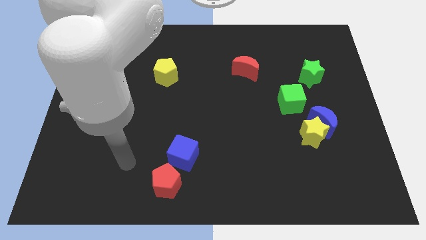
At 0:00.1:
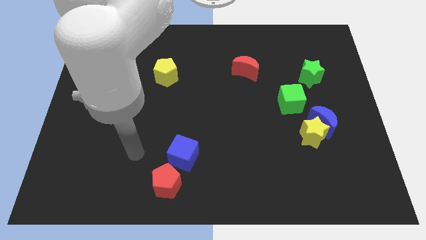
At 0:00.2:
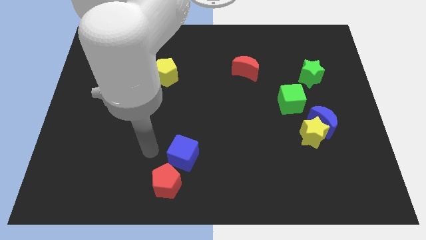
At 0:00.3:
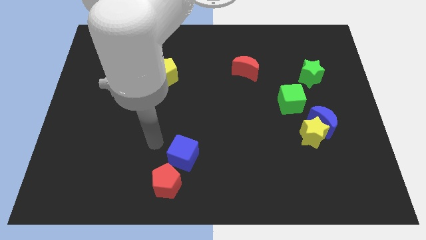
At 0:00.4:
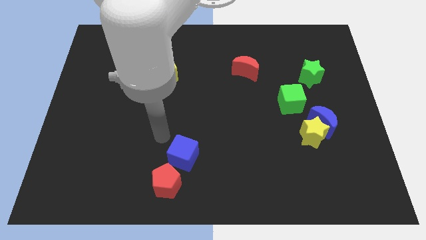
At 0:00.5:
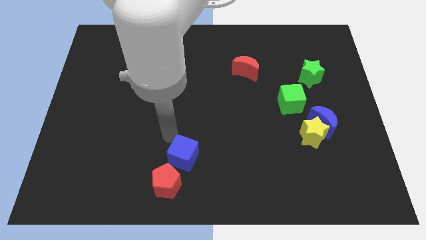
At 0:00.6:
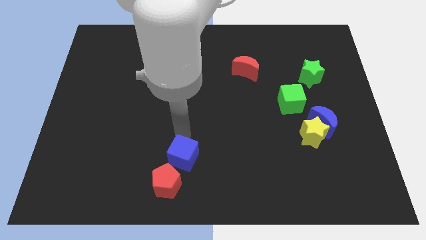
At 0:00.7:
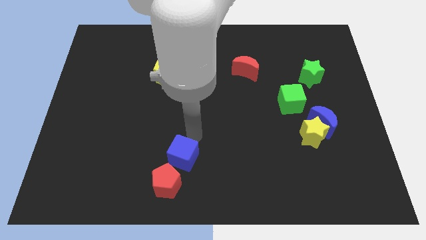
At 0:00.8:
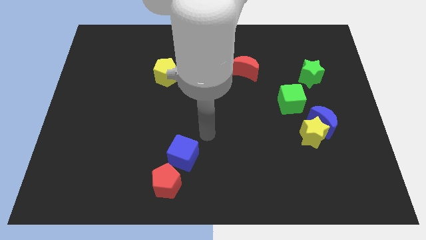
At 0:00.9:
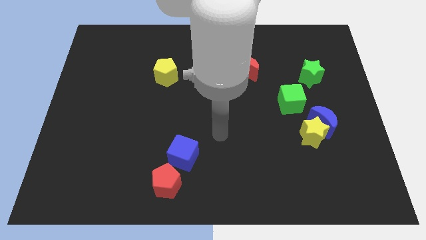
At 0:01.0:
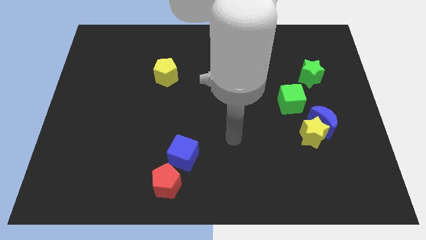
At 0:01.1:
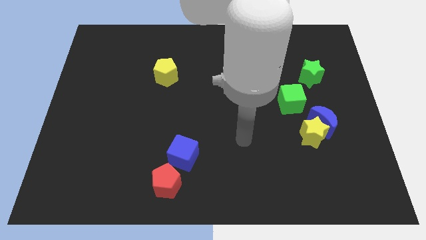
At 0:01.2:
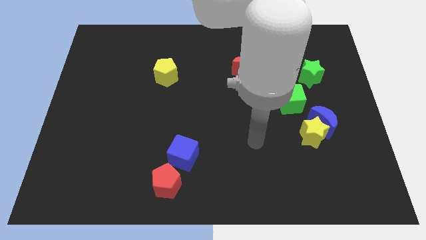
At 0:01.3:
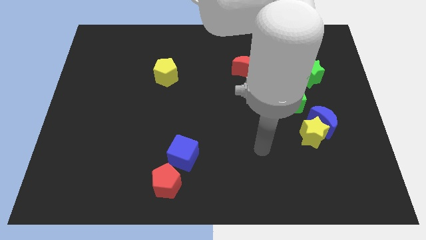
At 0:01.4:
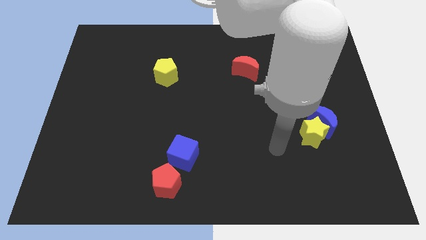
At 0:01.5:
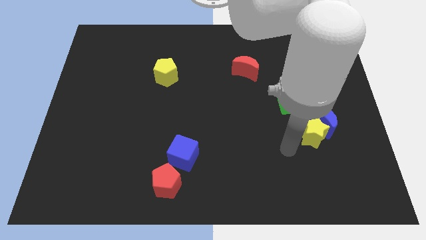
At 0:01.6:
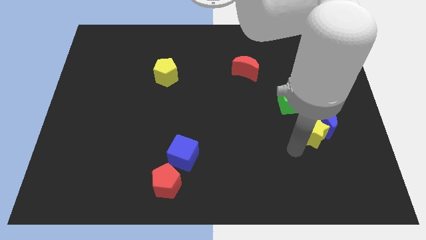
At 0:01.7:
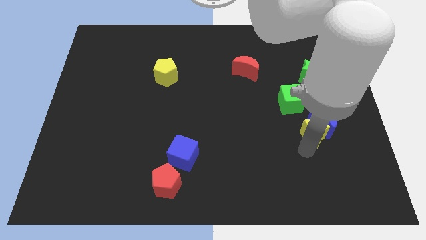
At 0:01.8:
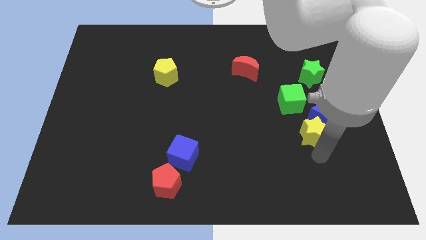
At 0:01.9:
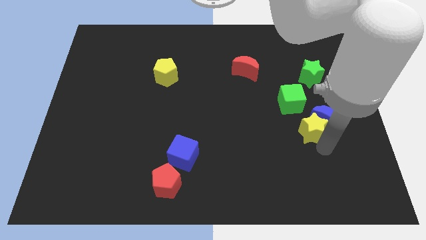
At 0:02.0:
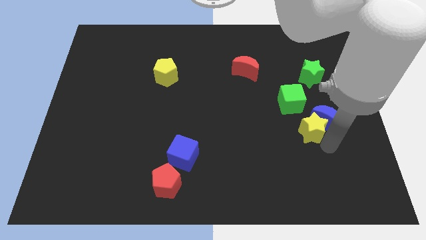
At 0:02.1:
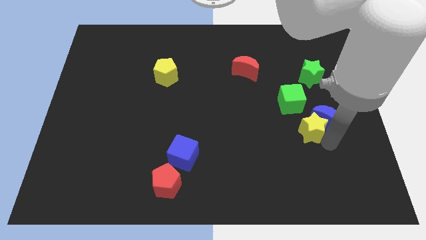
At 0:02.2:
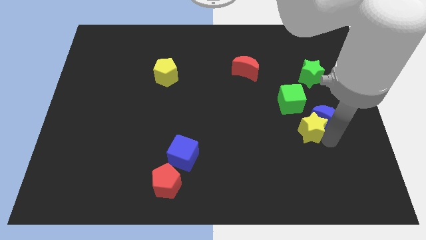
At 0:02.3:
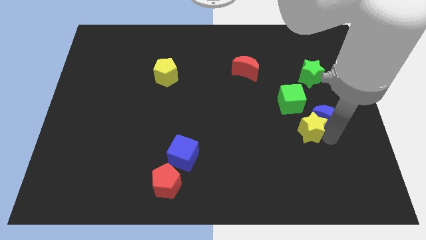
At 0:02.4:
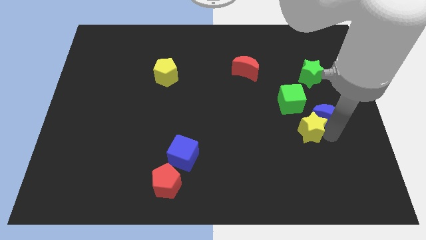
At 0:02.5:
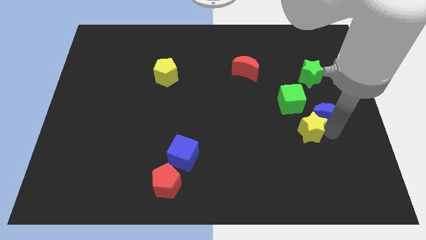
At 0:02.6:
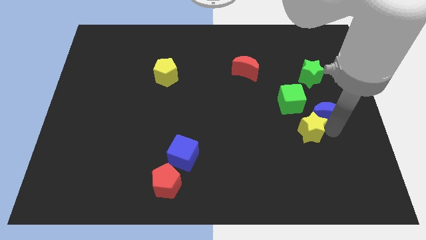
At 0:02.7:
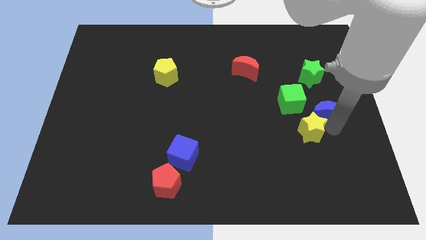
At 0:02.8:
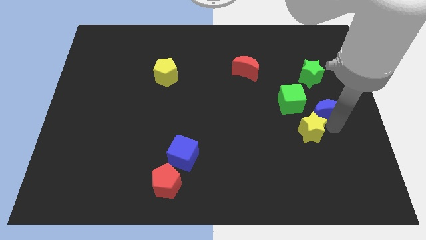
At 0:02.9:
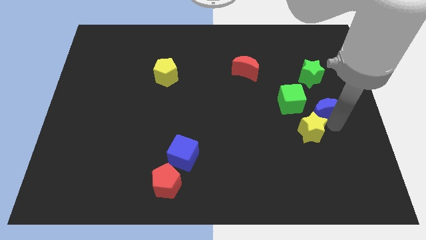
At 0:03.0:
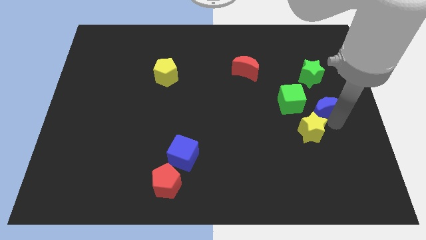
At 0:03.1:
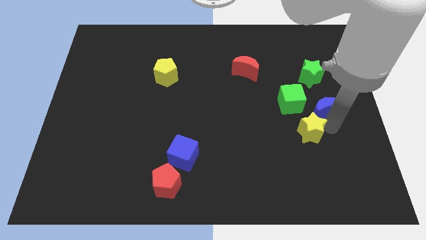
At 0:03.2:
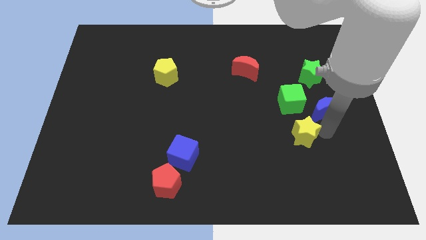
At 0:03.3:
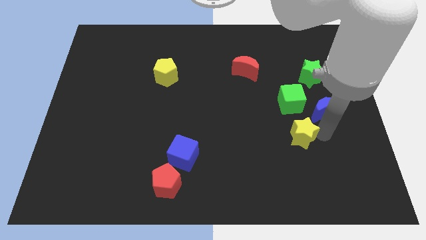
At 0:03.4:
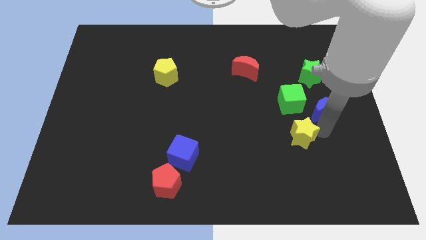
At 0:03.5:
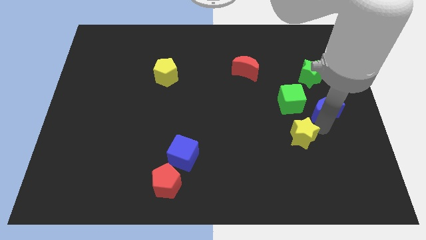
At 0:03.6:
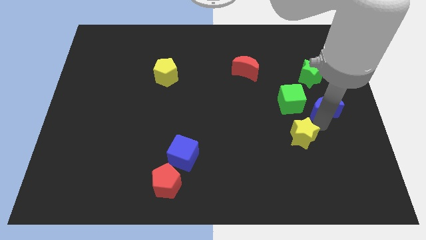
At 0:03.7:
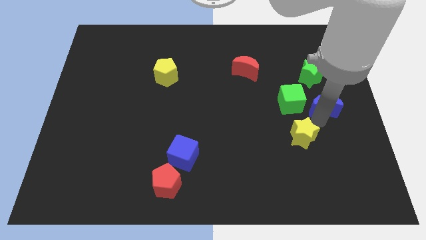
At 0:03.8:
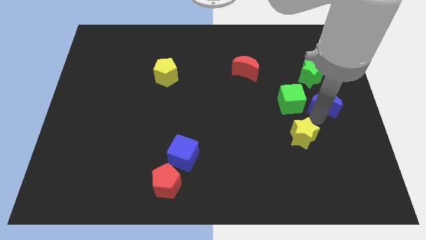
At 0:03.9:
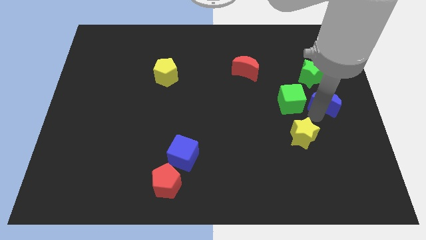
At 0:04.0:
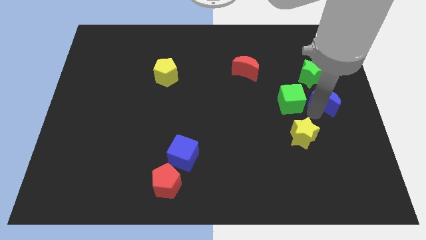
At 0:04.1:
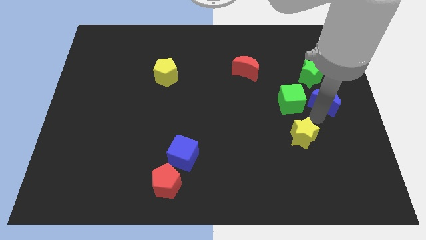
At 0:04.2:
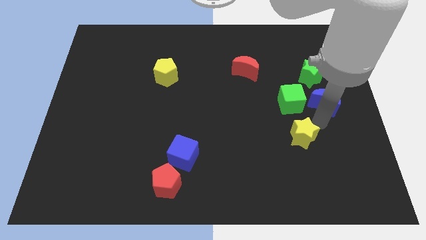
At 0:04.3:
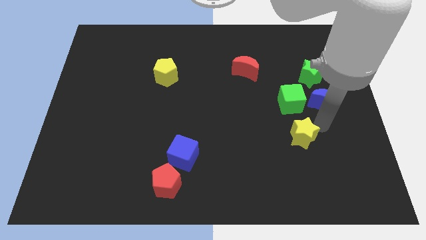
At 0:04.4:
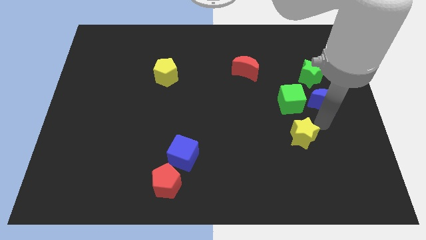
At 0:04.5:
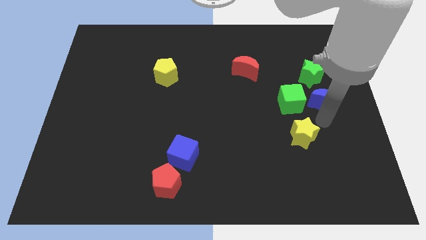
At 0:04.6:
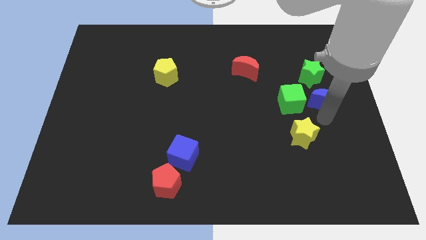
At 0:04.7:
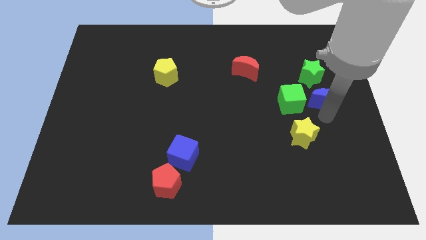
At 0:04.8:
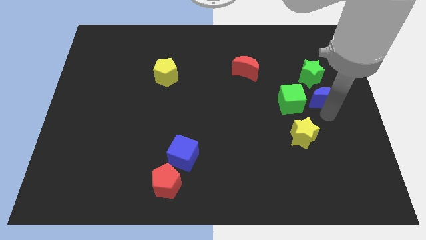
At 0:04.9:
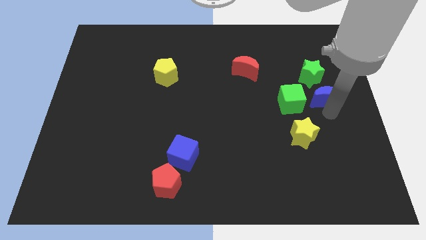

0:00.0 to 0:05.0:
move the blue moon a little upwards

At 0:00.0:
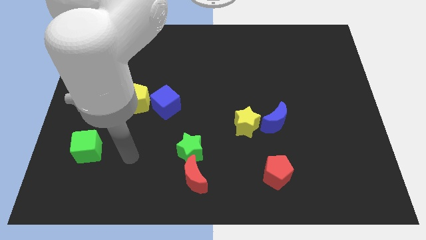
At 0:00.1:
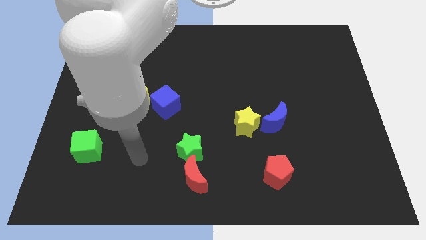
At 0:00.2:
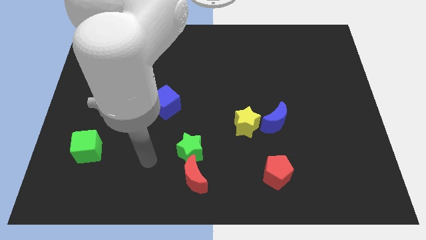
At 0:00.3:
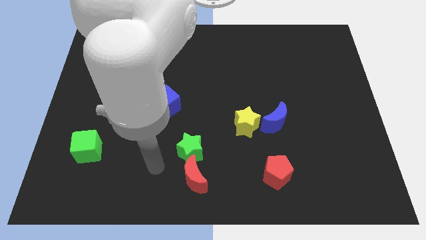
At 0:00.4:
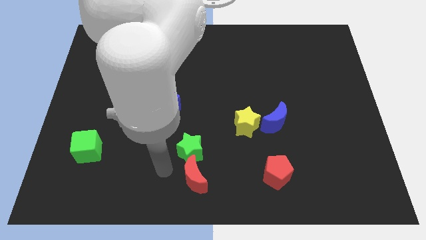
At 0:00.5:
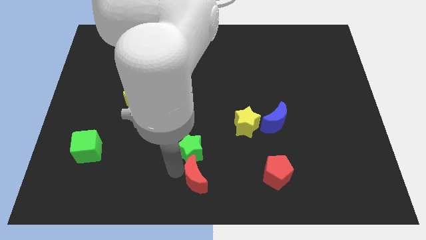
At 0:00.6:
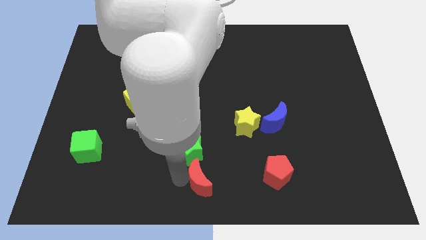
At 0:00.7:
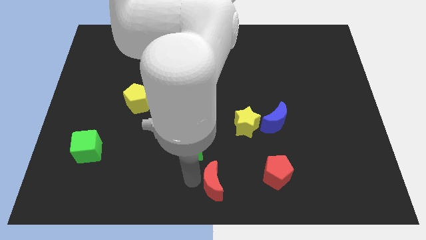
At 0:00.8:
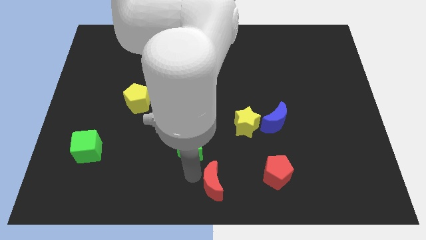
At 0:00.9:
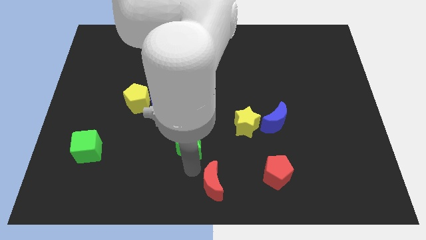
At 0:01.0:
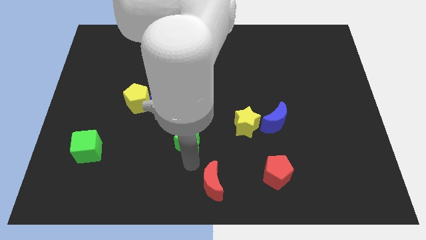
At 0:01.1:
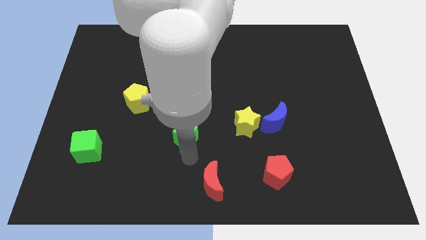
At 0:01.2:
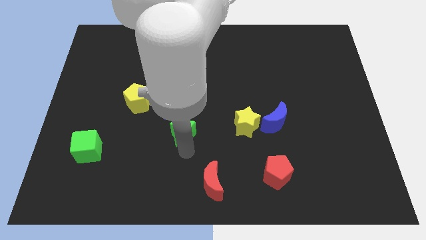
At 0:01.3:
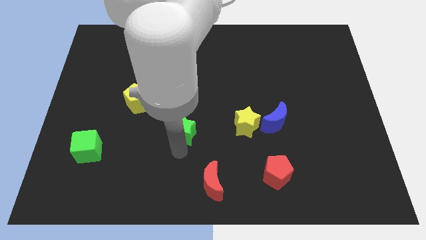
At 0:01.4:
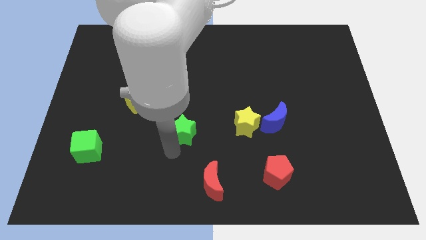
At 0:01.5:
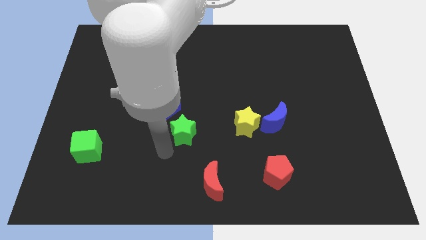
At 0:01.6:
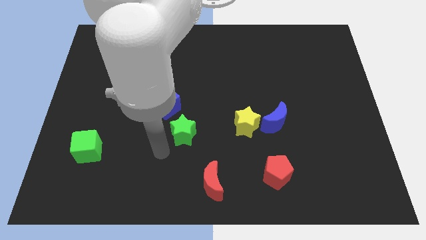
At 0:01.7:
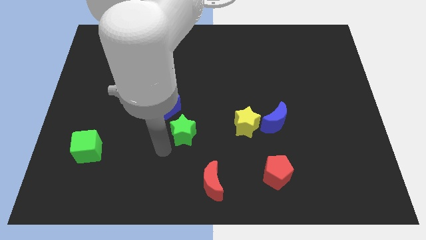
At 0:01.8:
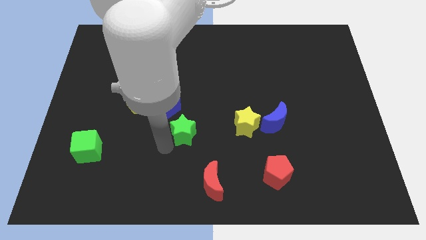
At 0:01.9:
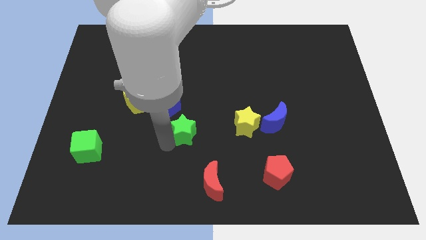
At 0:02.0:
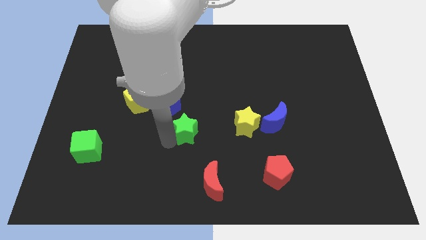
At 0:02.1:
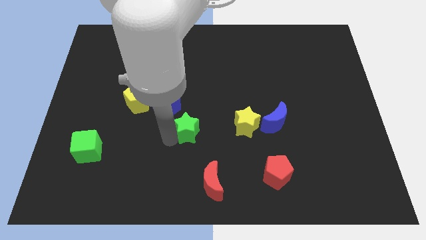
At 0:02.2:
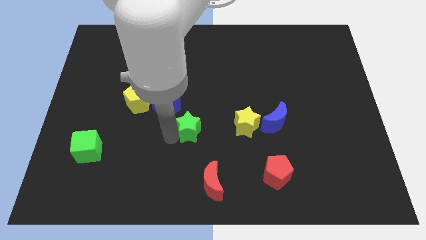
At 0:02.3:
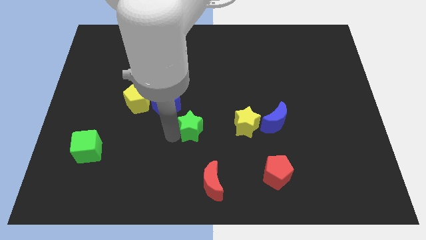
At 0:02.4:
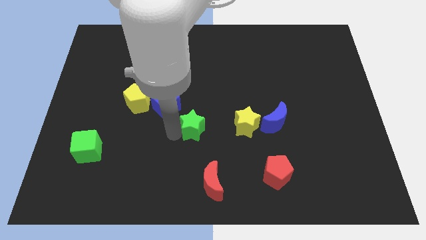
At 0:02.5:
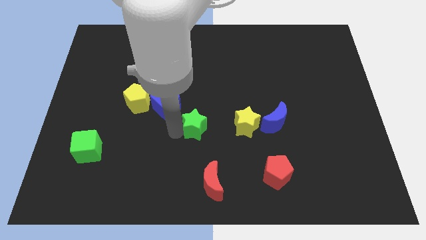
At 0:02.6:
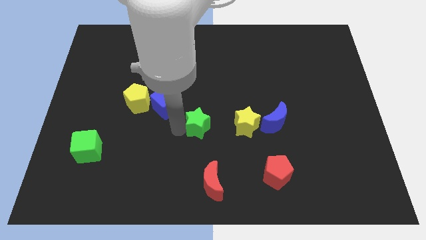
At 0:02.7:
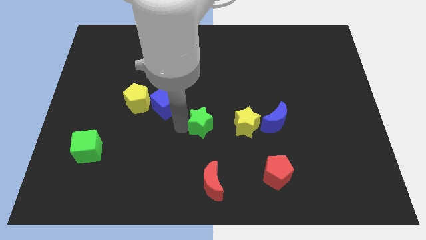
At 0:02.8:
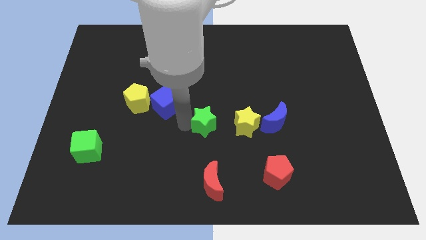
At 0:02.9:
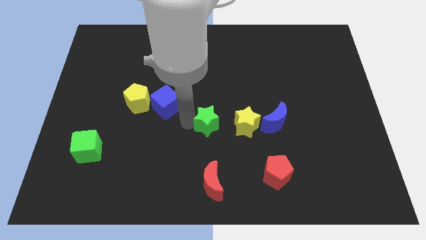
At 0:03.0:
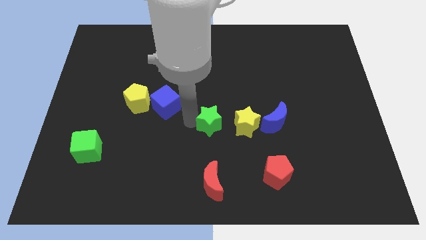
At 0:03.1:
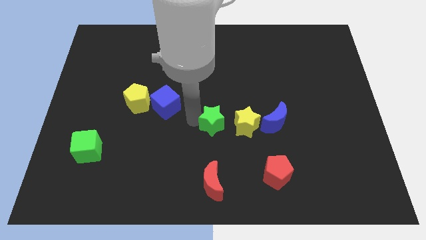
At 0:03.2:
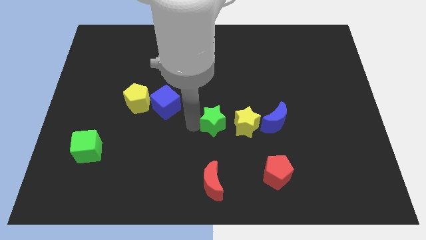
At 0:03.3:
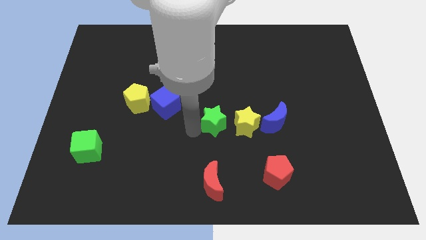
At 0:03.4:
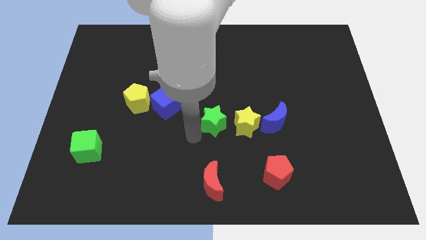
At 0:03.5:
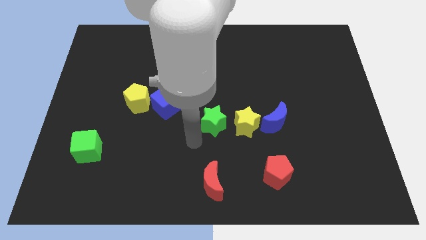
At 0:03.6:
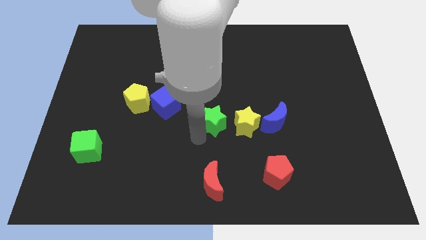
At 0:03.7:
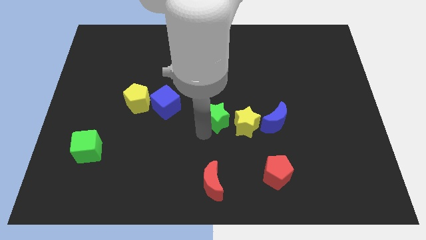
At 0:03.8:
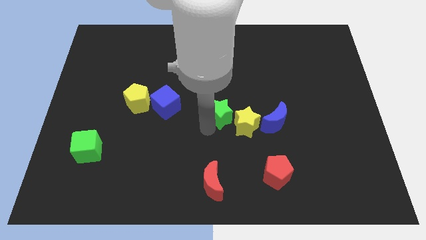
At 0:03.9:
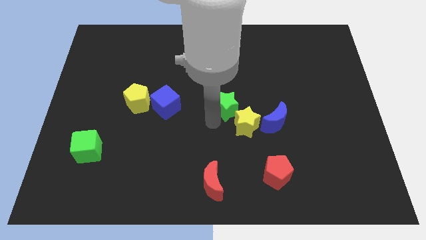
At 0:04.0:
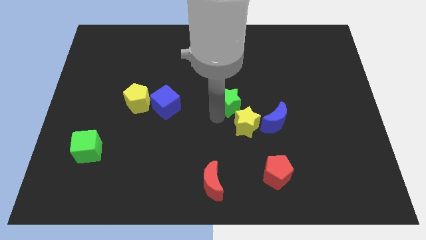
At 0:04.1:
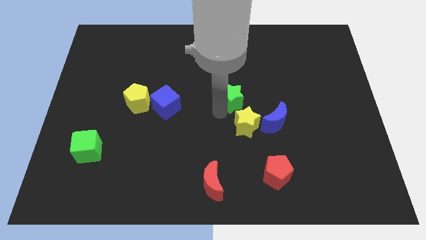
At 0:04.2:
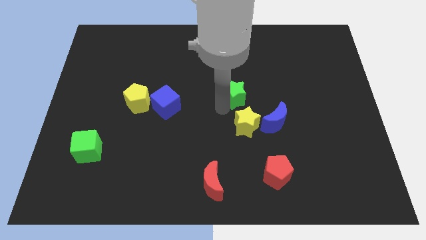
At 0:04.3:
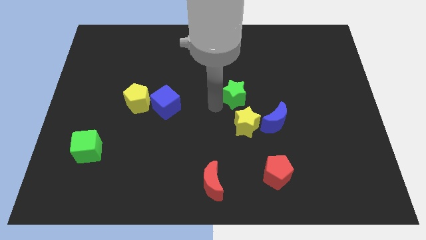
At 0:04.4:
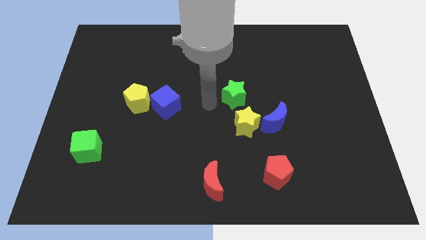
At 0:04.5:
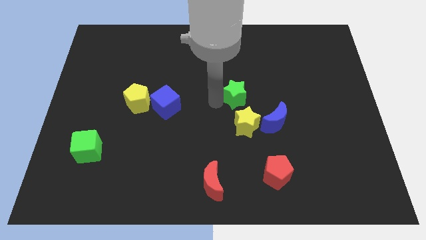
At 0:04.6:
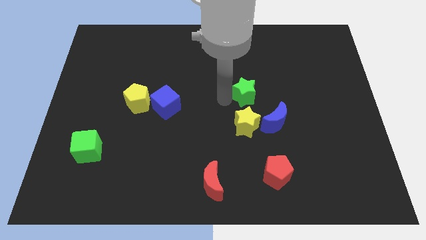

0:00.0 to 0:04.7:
push the green star up and to the right diagonally
